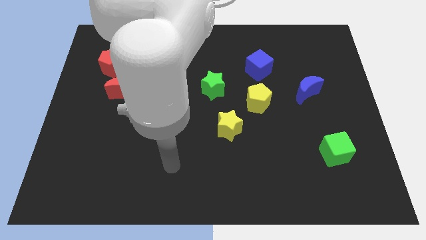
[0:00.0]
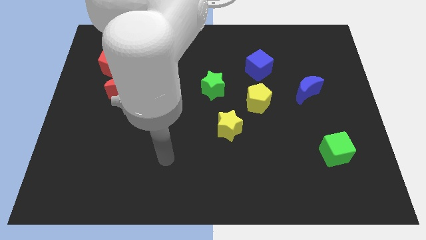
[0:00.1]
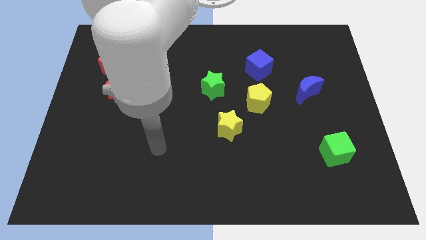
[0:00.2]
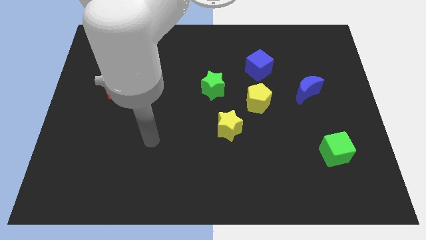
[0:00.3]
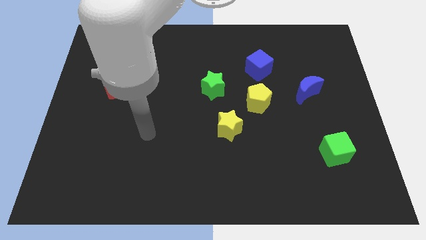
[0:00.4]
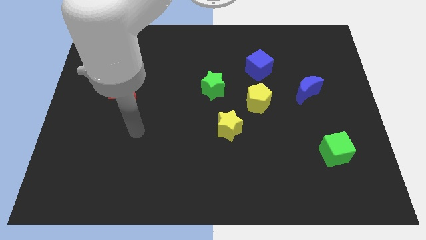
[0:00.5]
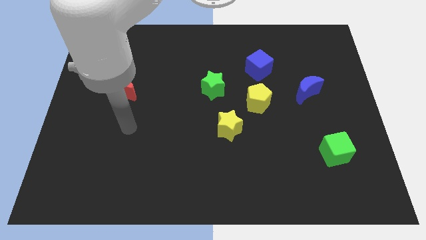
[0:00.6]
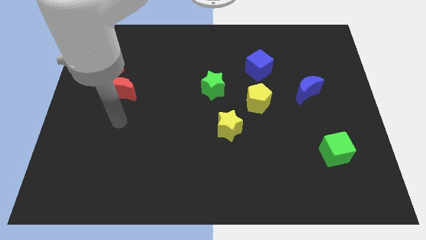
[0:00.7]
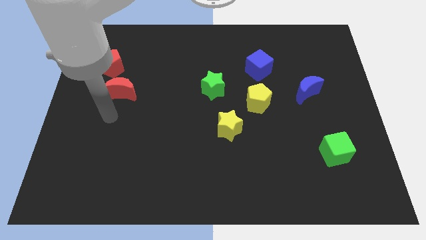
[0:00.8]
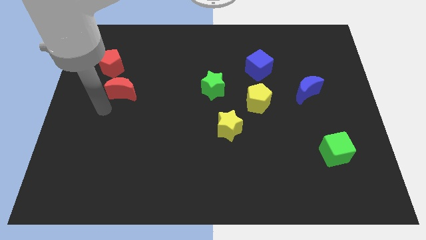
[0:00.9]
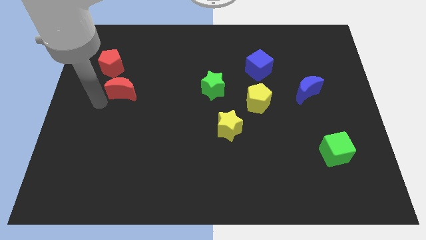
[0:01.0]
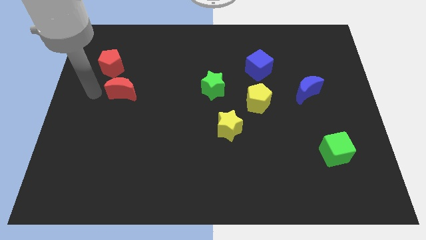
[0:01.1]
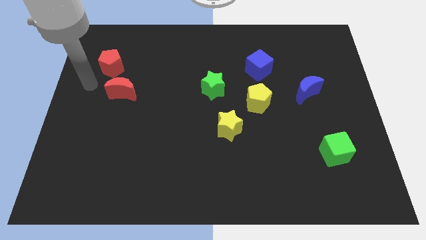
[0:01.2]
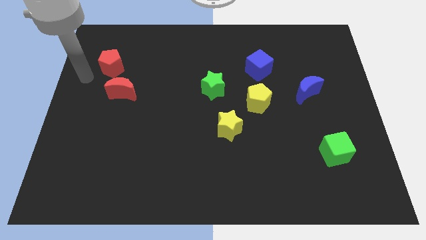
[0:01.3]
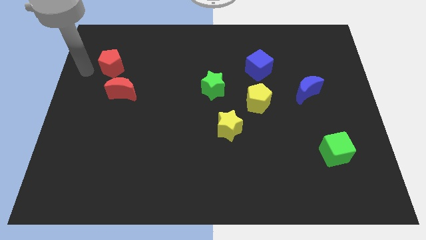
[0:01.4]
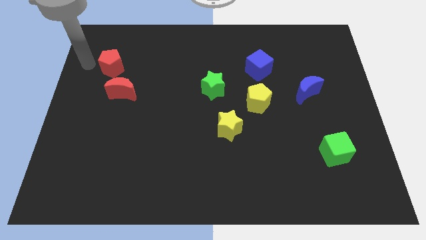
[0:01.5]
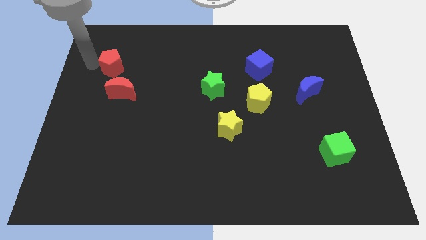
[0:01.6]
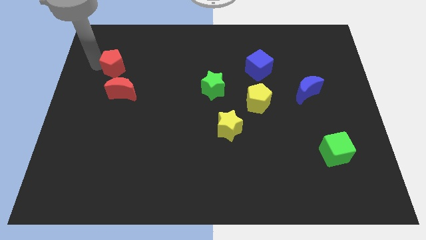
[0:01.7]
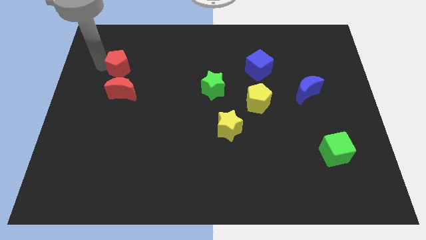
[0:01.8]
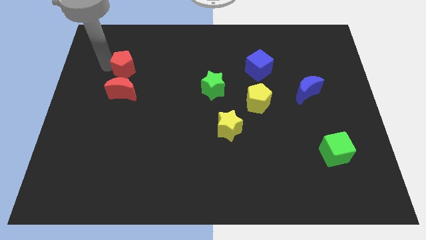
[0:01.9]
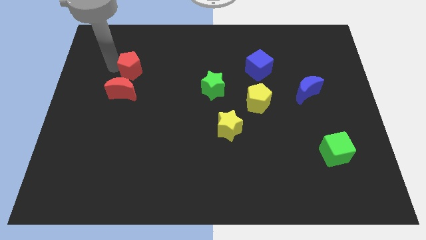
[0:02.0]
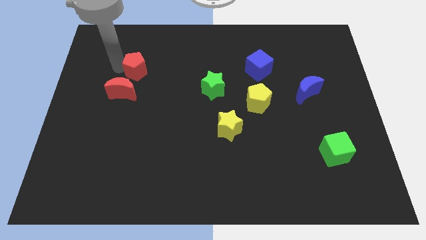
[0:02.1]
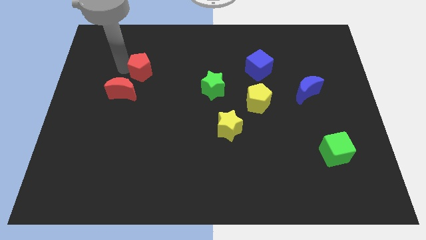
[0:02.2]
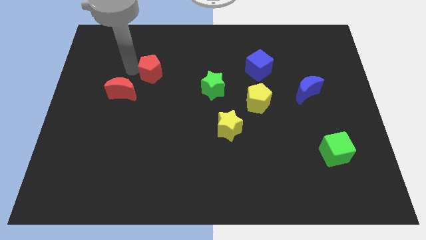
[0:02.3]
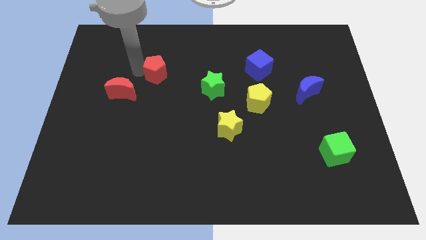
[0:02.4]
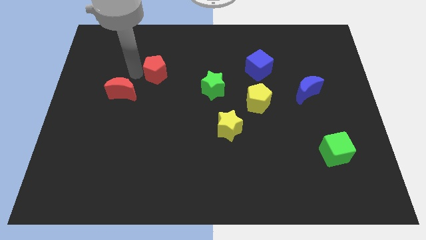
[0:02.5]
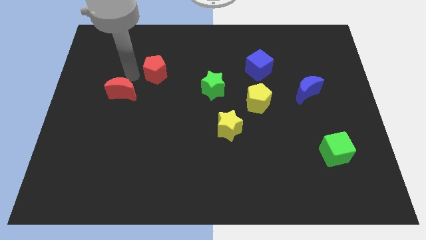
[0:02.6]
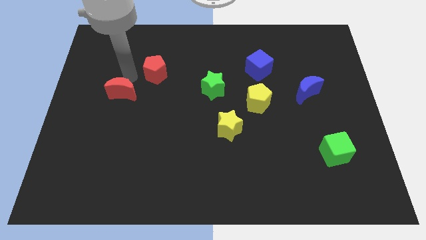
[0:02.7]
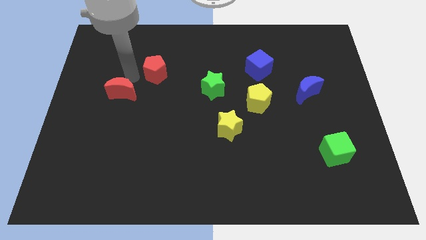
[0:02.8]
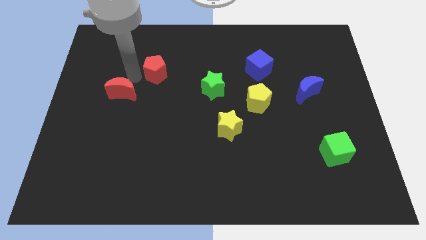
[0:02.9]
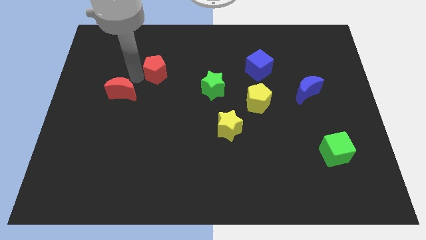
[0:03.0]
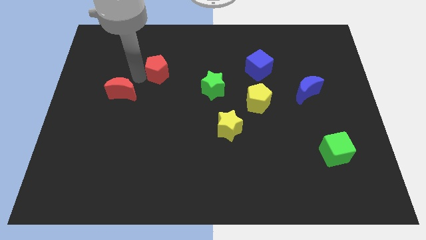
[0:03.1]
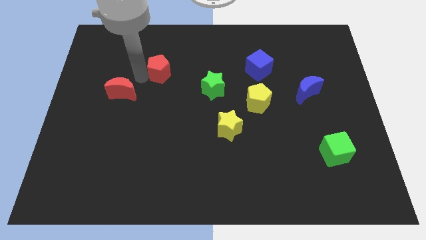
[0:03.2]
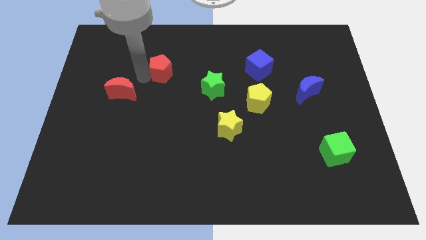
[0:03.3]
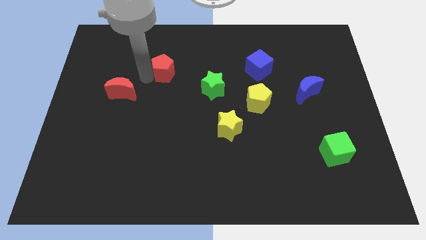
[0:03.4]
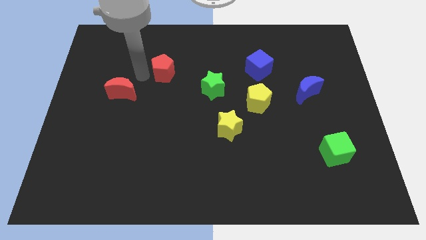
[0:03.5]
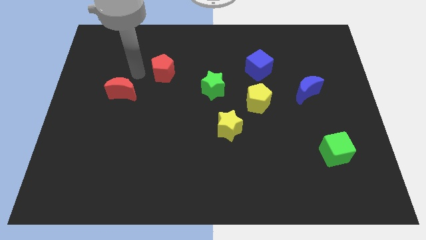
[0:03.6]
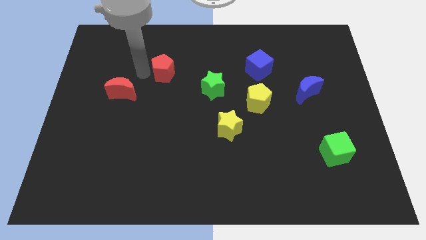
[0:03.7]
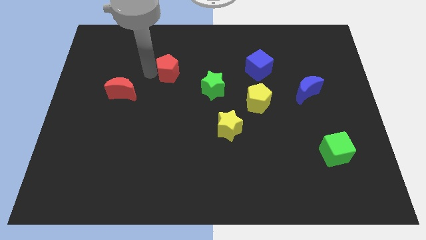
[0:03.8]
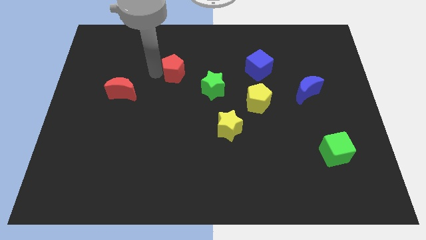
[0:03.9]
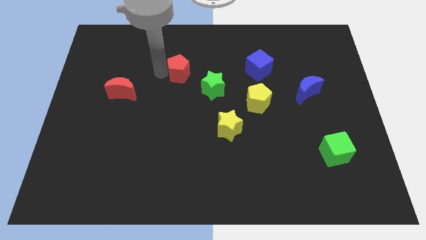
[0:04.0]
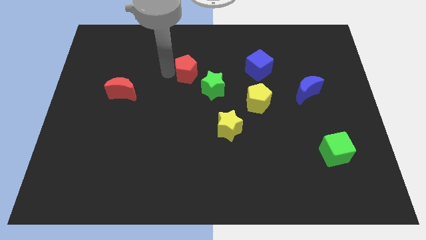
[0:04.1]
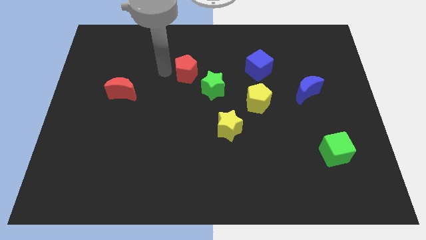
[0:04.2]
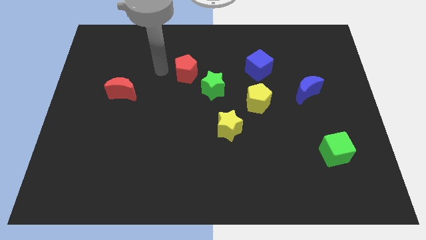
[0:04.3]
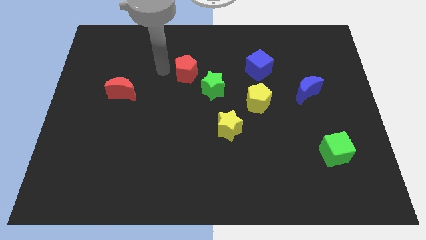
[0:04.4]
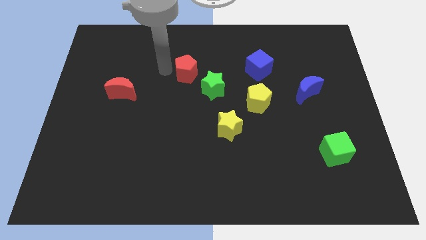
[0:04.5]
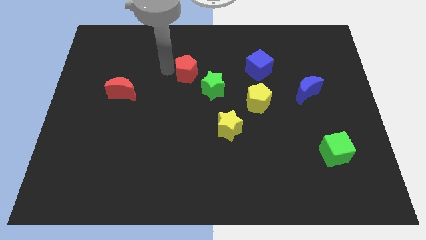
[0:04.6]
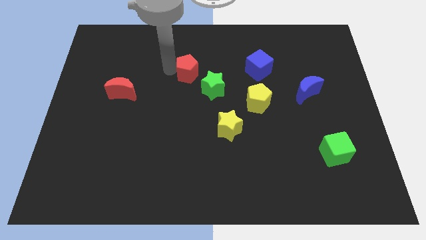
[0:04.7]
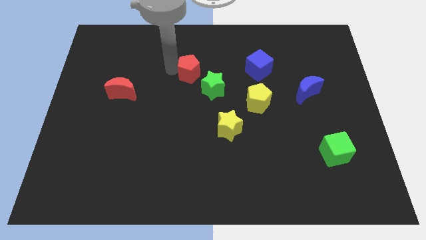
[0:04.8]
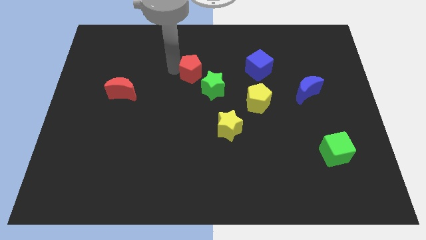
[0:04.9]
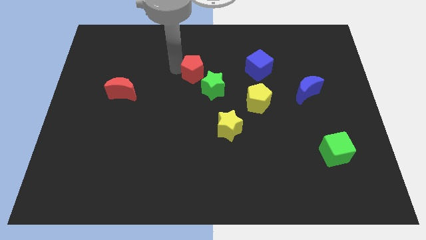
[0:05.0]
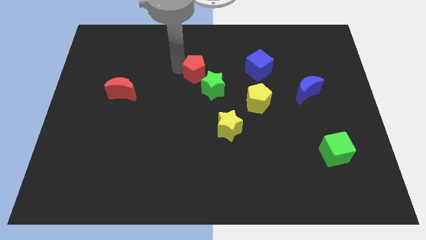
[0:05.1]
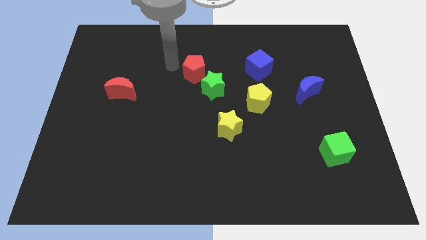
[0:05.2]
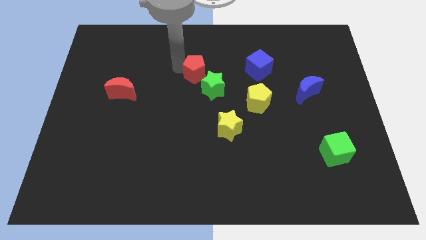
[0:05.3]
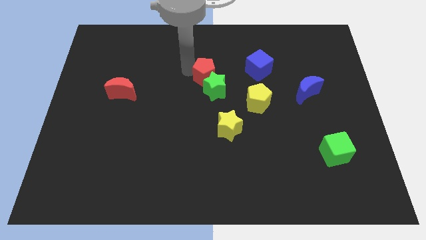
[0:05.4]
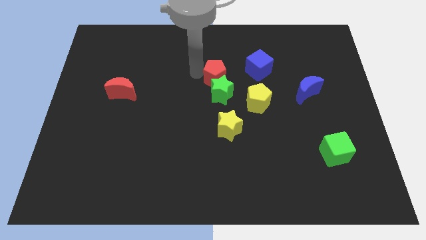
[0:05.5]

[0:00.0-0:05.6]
move the red pentagon to the top left of the yellow pentagon

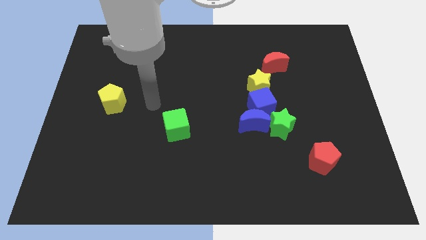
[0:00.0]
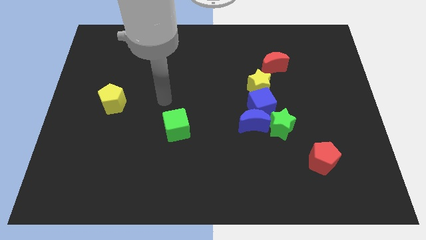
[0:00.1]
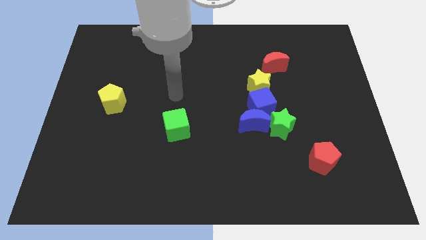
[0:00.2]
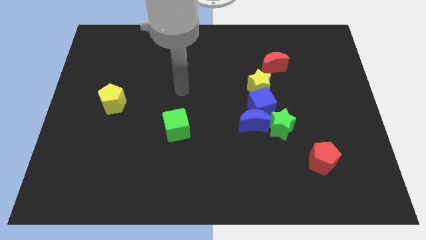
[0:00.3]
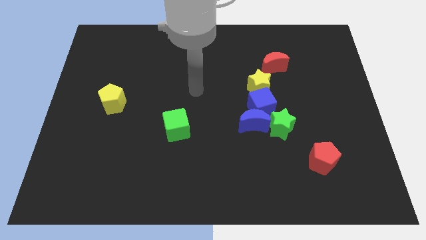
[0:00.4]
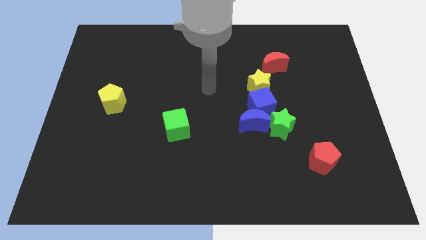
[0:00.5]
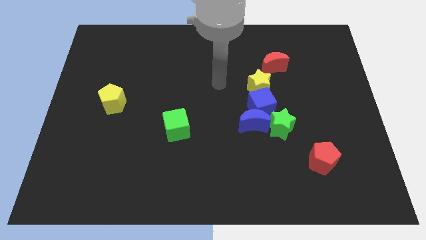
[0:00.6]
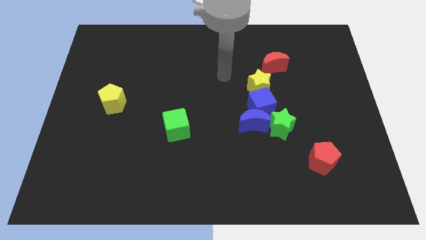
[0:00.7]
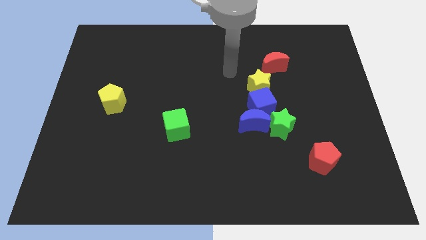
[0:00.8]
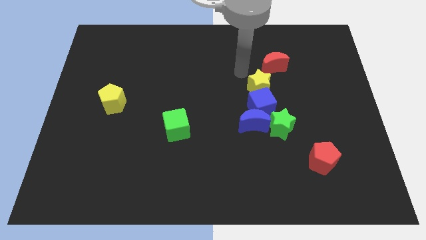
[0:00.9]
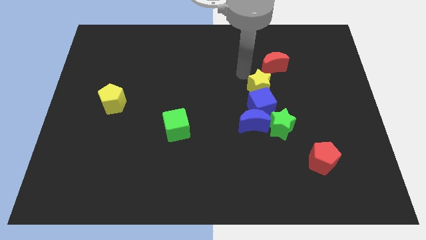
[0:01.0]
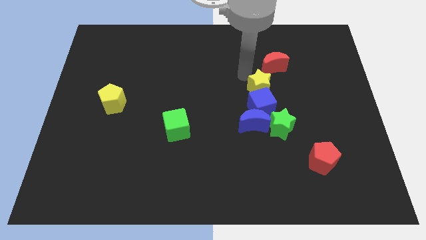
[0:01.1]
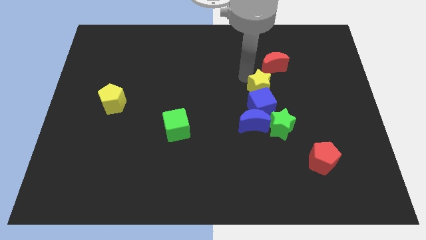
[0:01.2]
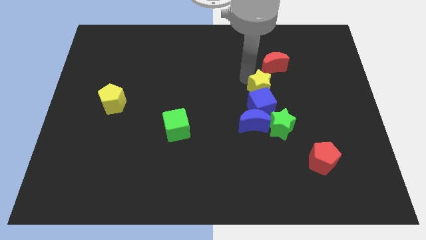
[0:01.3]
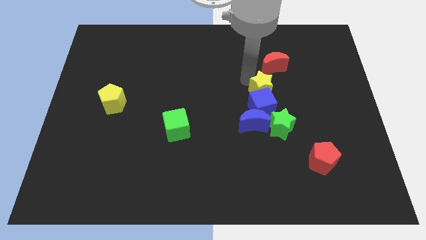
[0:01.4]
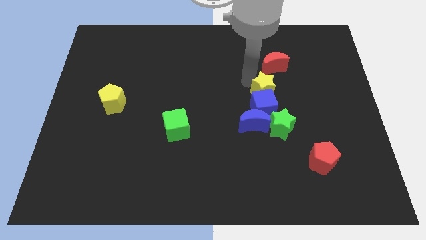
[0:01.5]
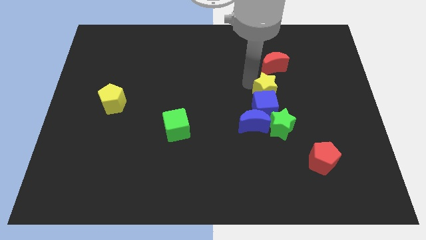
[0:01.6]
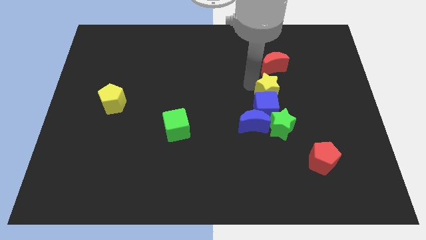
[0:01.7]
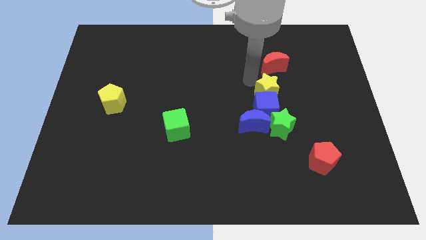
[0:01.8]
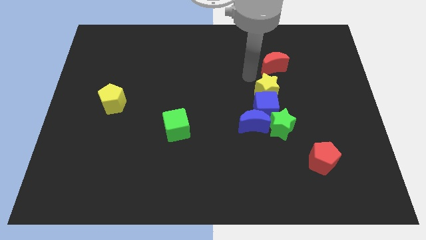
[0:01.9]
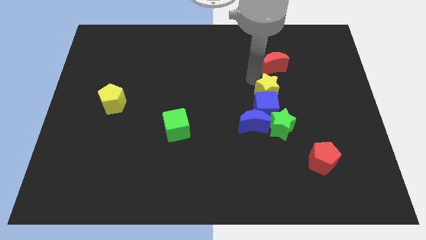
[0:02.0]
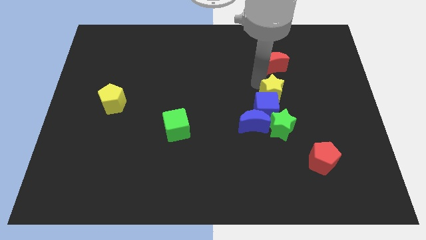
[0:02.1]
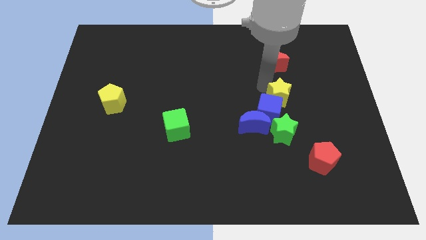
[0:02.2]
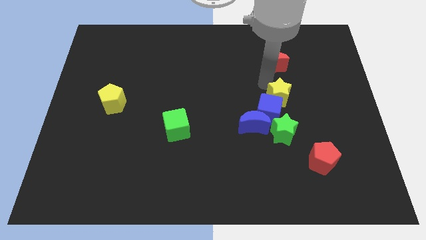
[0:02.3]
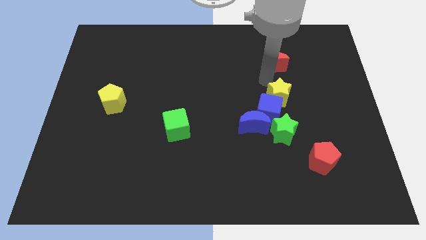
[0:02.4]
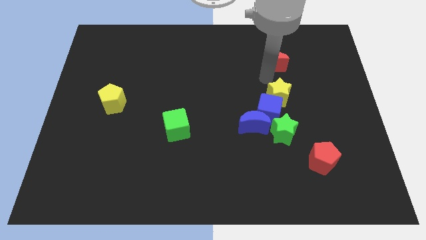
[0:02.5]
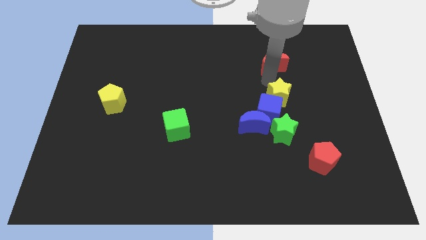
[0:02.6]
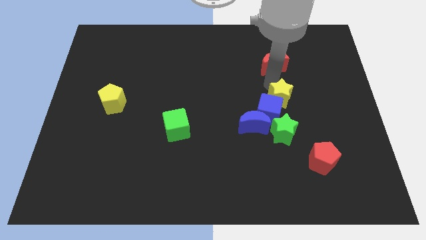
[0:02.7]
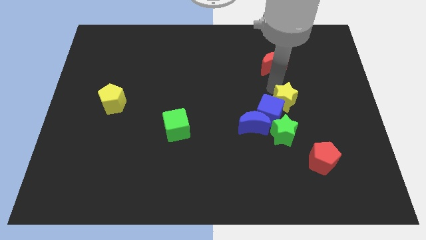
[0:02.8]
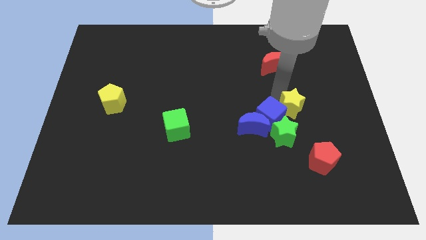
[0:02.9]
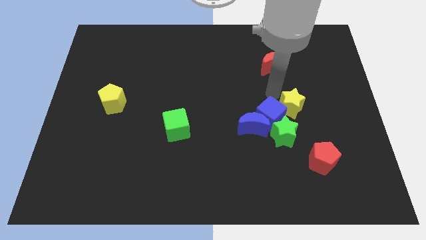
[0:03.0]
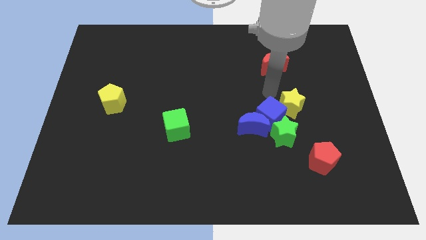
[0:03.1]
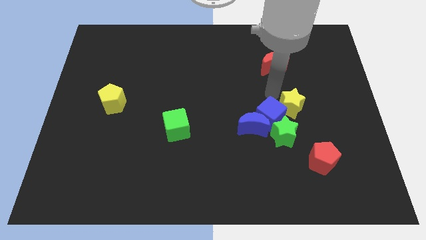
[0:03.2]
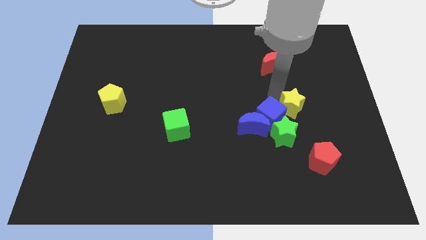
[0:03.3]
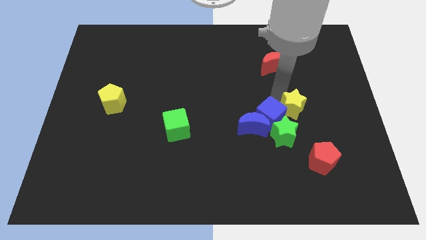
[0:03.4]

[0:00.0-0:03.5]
put the yellow star to the top of the red pentagon
